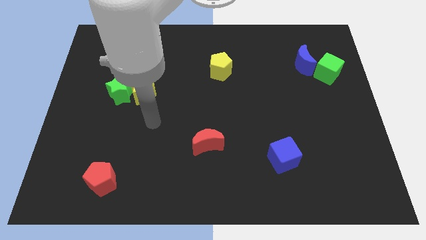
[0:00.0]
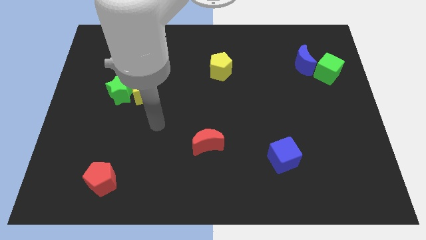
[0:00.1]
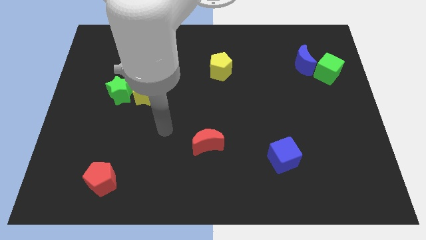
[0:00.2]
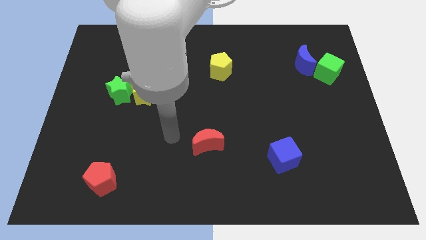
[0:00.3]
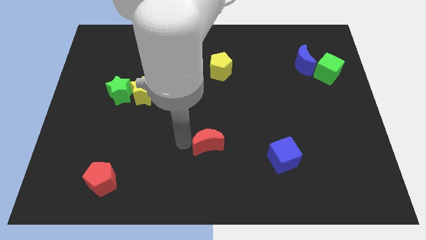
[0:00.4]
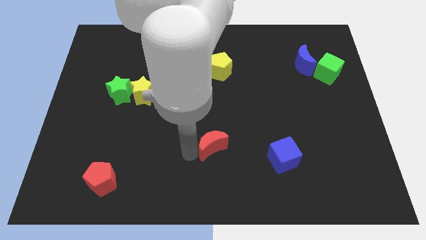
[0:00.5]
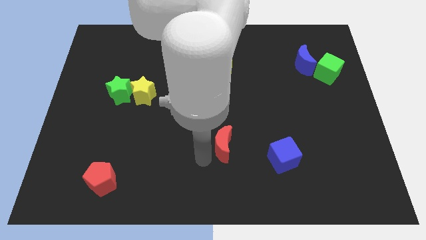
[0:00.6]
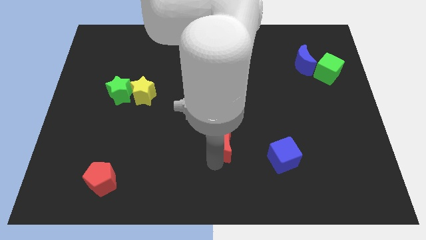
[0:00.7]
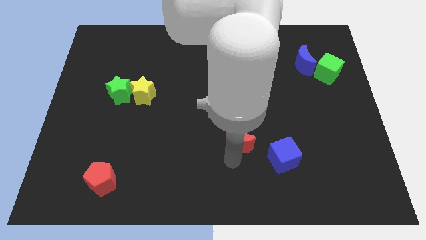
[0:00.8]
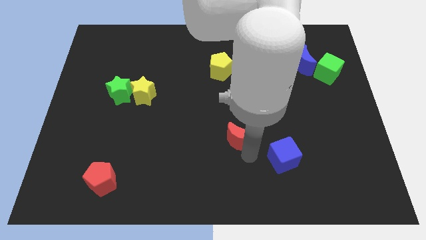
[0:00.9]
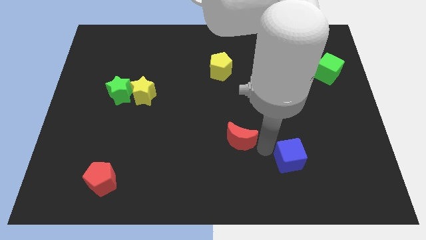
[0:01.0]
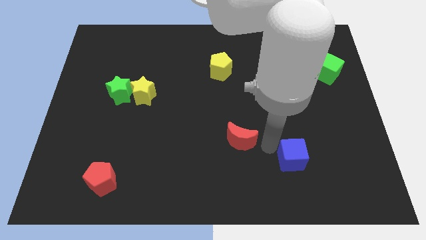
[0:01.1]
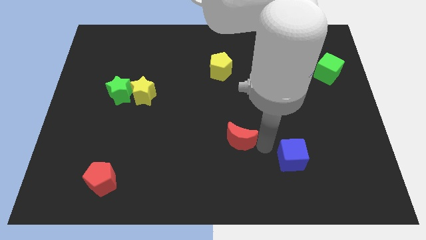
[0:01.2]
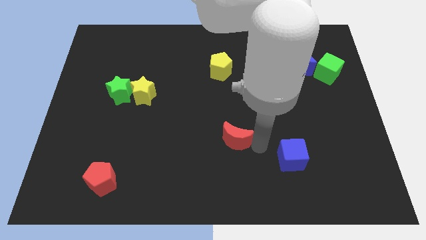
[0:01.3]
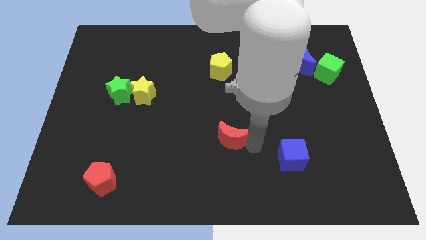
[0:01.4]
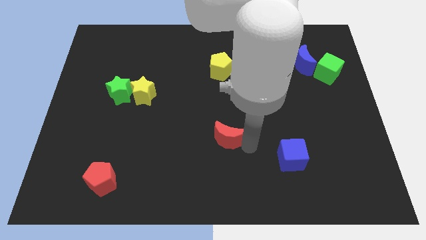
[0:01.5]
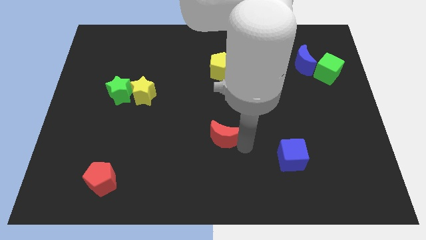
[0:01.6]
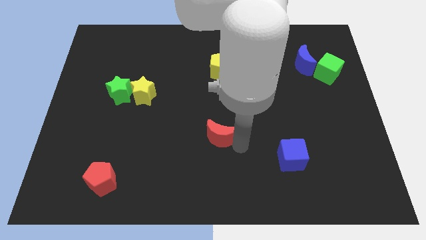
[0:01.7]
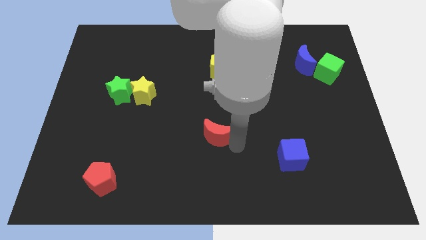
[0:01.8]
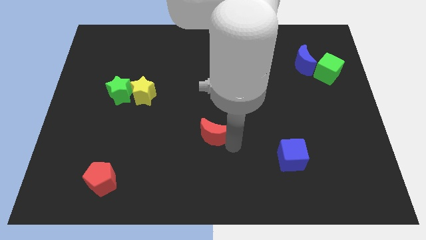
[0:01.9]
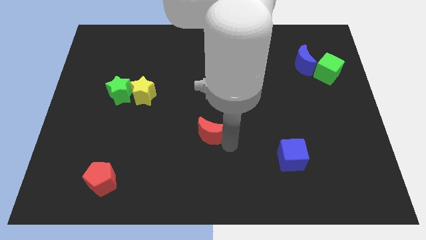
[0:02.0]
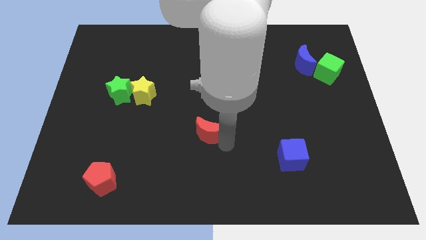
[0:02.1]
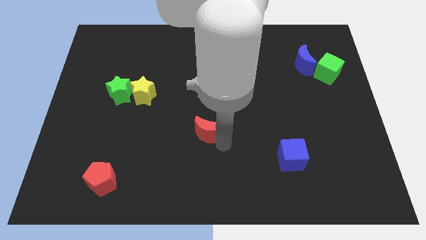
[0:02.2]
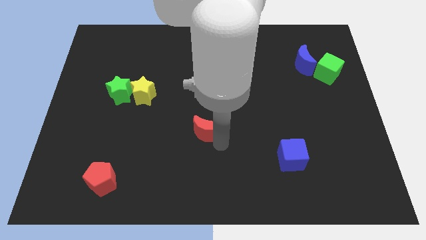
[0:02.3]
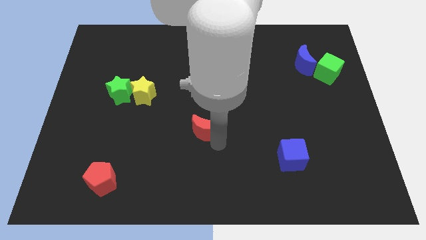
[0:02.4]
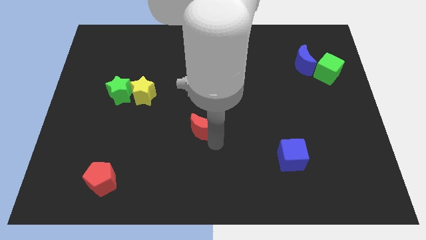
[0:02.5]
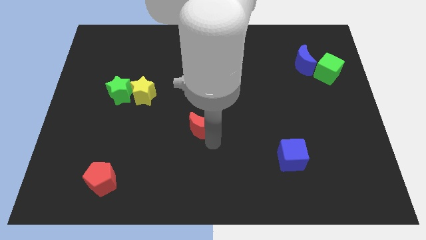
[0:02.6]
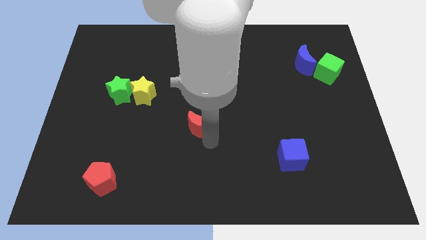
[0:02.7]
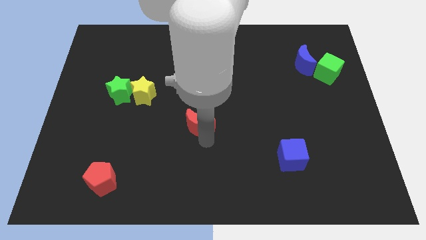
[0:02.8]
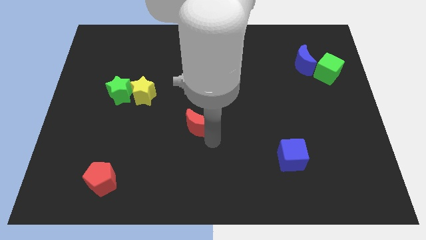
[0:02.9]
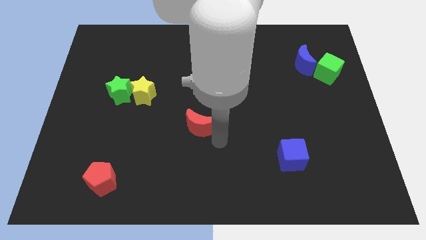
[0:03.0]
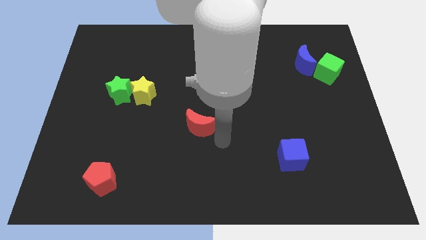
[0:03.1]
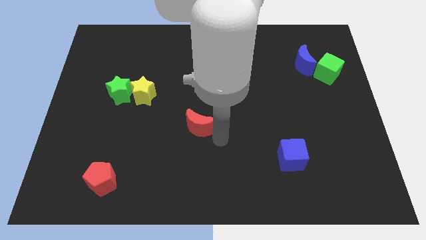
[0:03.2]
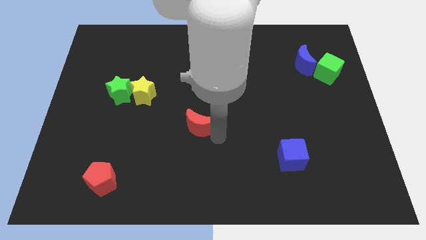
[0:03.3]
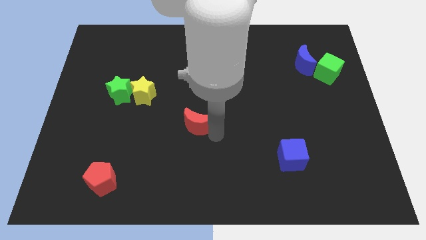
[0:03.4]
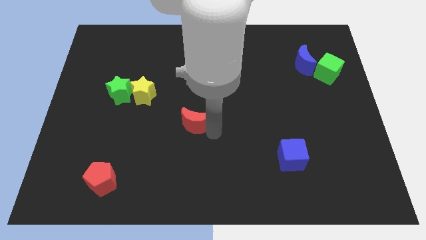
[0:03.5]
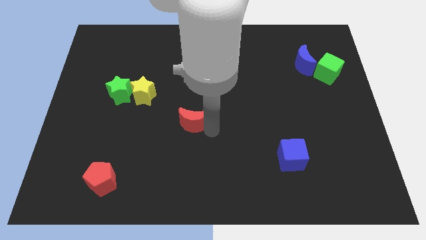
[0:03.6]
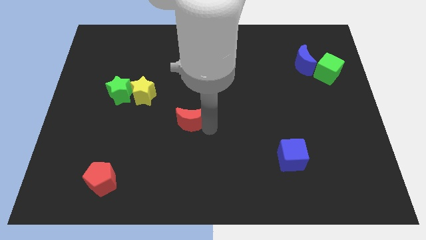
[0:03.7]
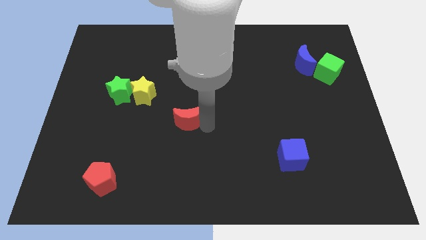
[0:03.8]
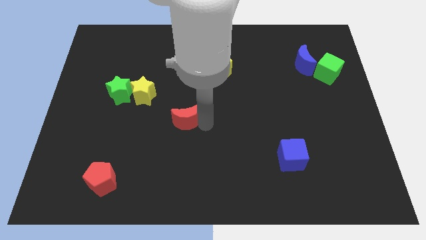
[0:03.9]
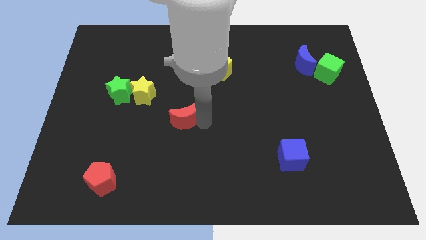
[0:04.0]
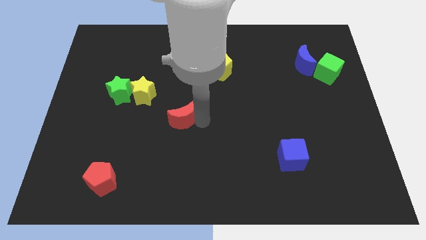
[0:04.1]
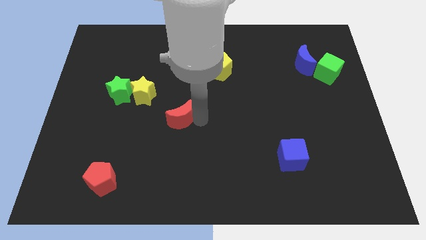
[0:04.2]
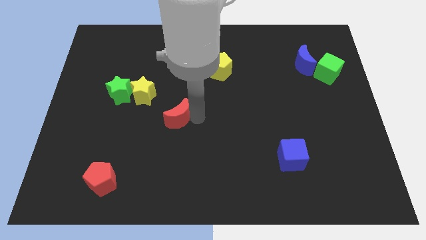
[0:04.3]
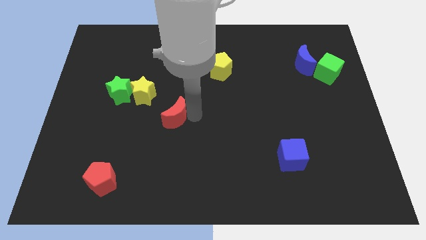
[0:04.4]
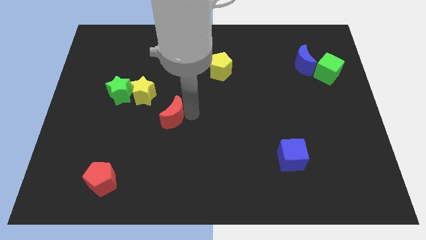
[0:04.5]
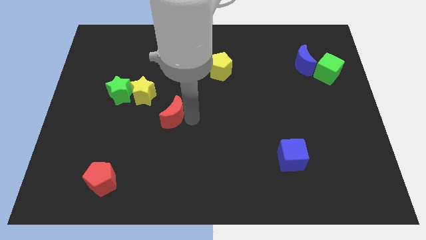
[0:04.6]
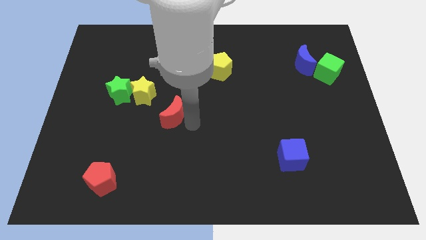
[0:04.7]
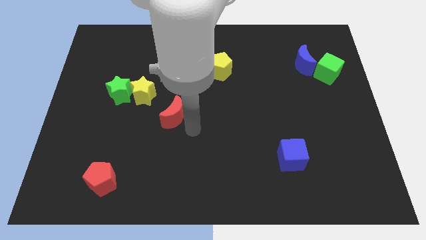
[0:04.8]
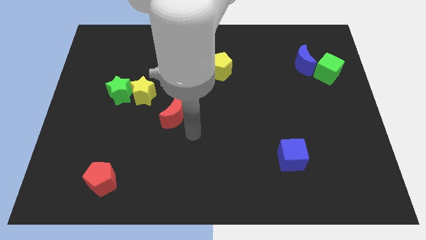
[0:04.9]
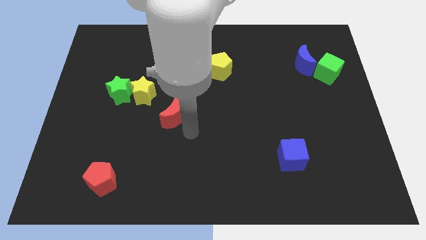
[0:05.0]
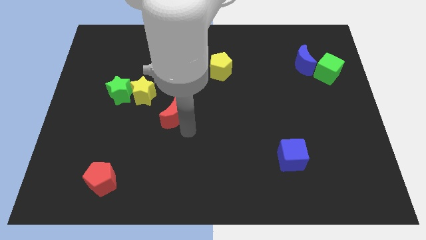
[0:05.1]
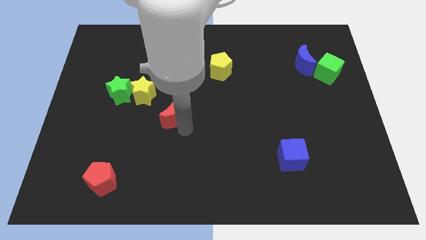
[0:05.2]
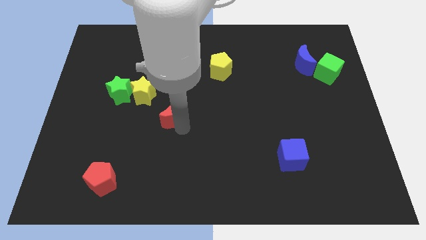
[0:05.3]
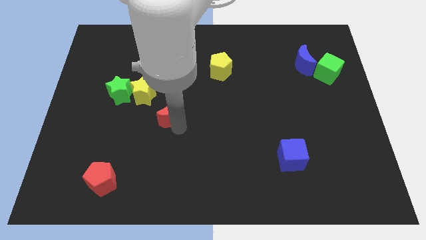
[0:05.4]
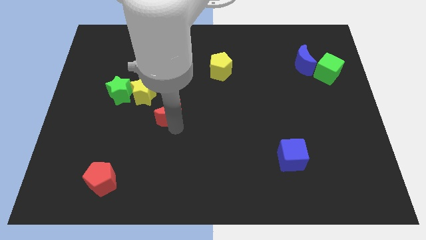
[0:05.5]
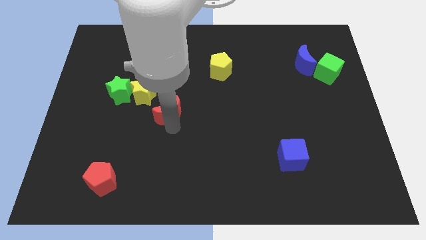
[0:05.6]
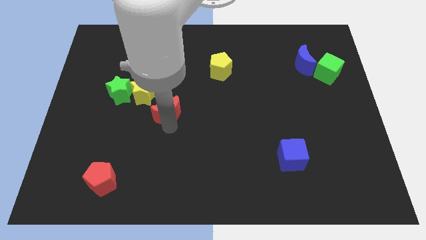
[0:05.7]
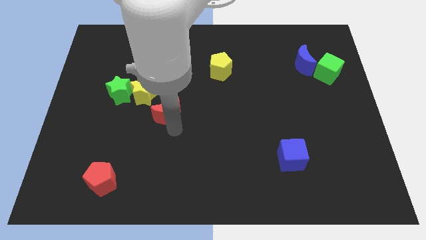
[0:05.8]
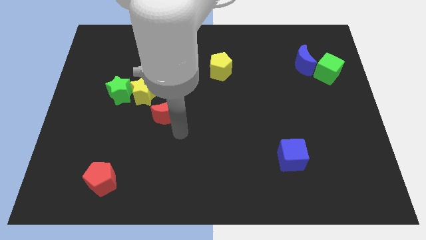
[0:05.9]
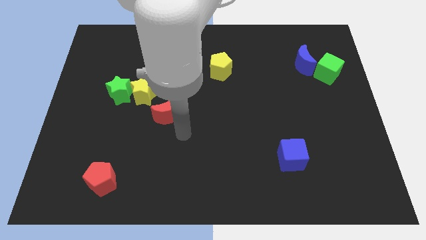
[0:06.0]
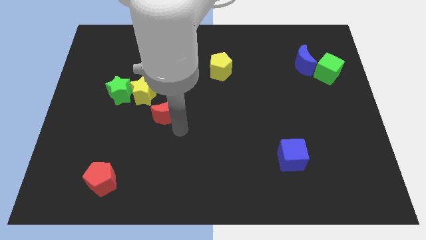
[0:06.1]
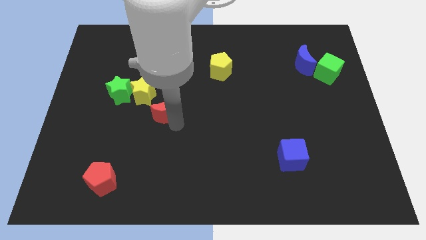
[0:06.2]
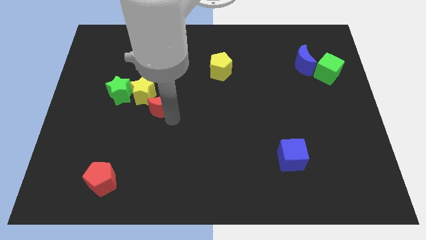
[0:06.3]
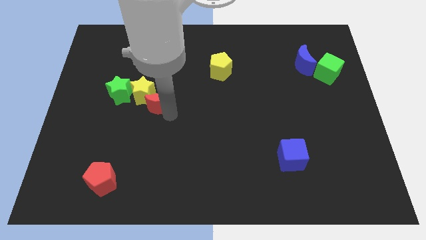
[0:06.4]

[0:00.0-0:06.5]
put the red moon close to the yellow star
